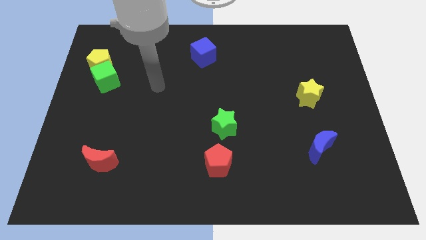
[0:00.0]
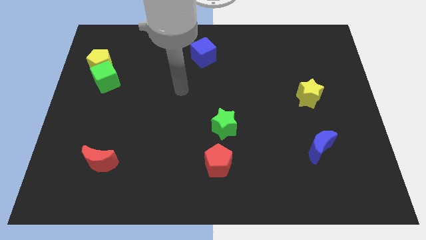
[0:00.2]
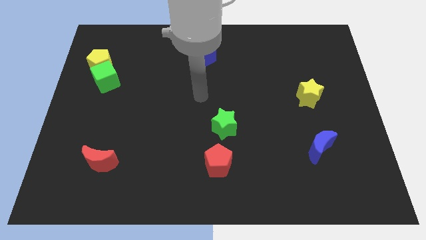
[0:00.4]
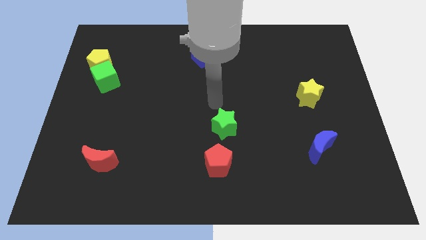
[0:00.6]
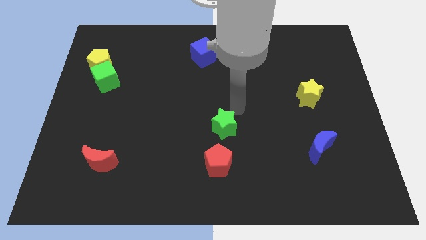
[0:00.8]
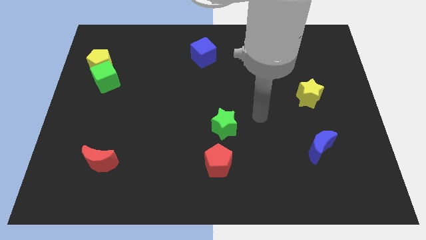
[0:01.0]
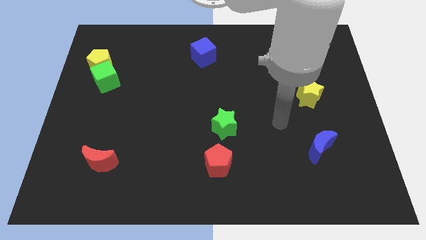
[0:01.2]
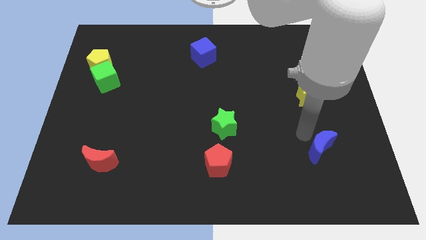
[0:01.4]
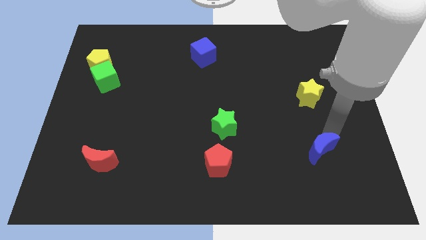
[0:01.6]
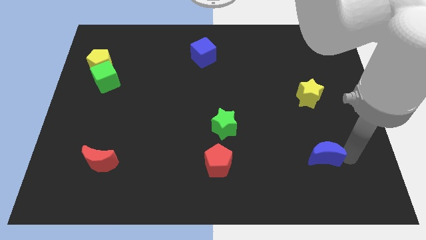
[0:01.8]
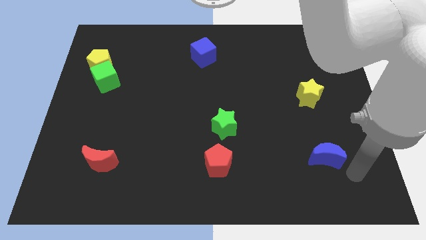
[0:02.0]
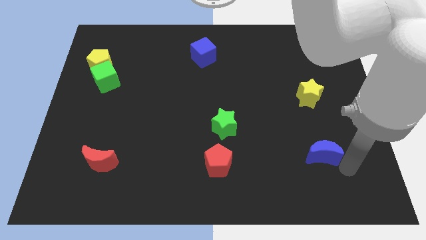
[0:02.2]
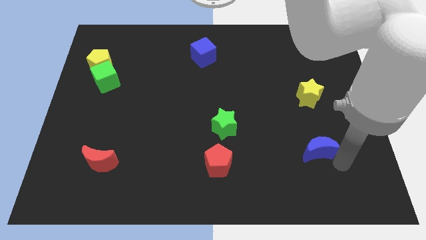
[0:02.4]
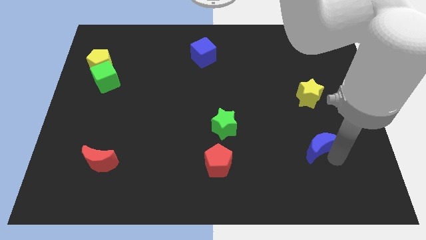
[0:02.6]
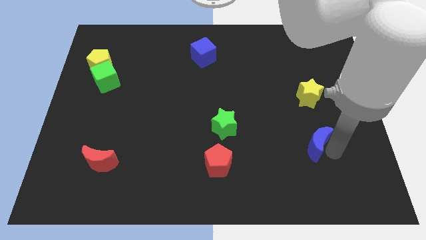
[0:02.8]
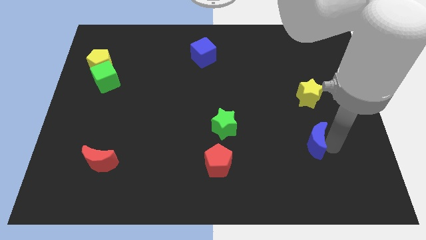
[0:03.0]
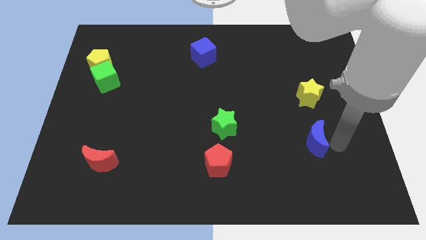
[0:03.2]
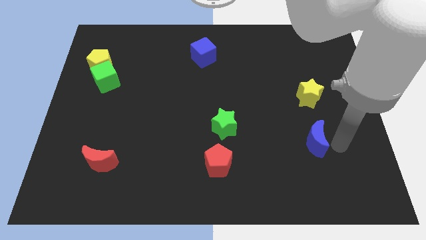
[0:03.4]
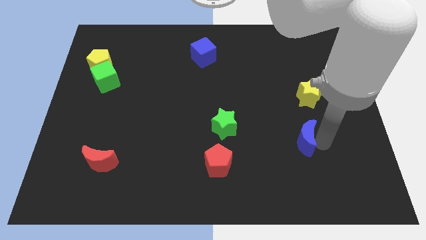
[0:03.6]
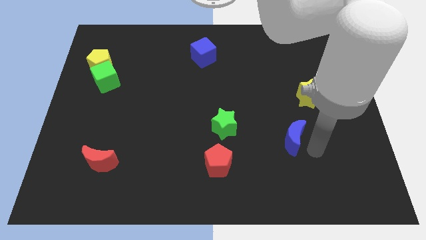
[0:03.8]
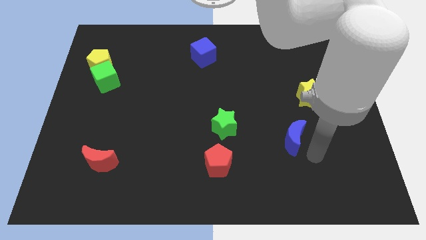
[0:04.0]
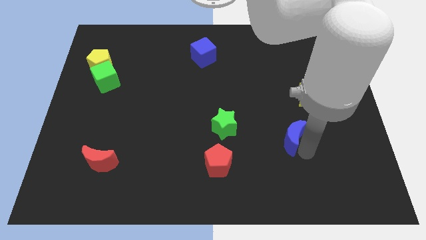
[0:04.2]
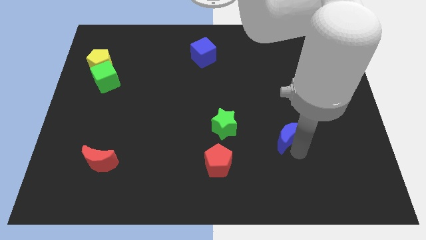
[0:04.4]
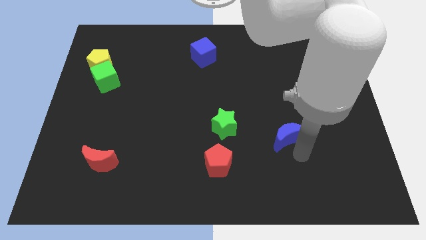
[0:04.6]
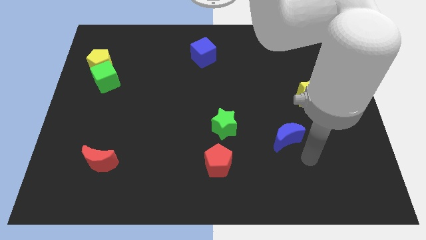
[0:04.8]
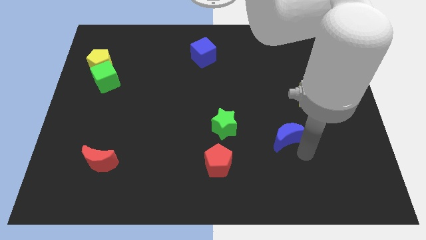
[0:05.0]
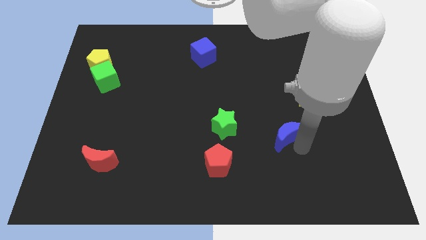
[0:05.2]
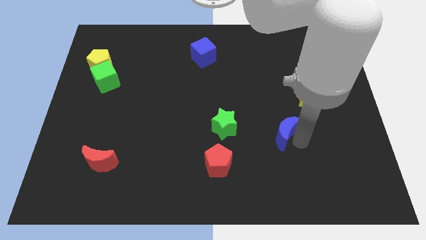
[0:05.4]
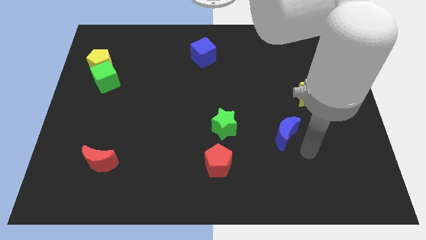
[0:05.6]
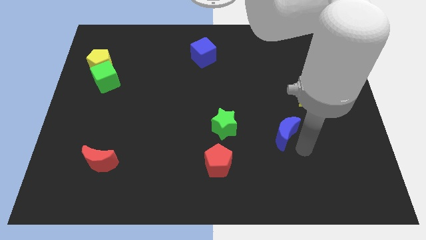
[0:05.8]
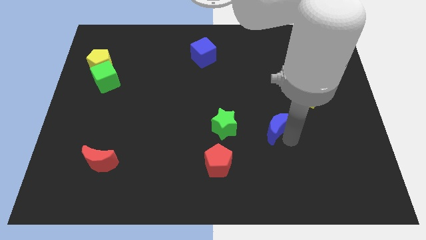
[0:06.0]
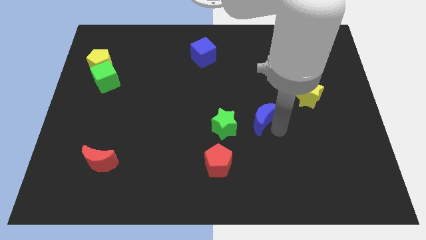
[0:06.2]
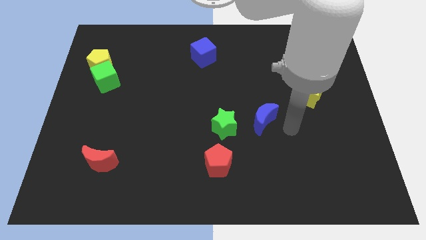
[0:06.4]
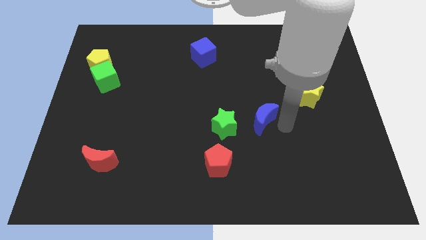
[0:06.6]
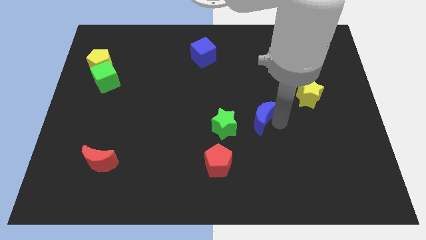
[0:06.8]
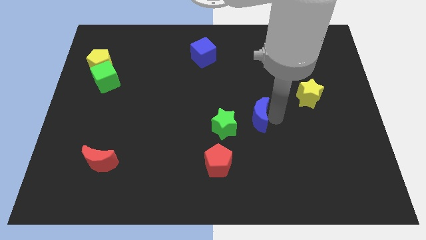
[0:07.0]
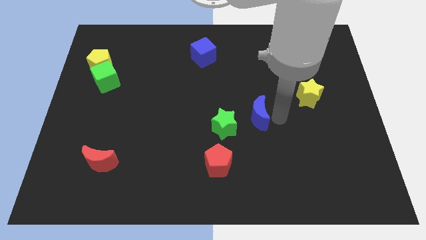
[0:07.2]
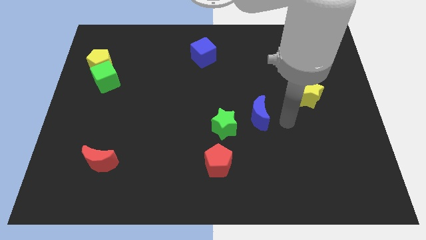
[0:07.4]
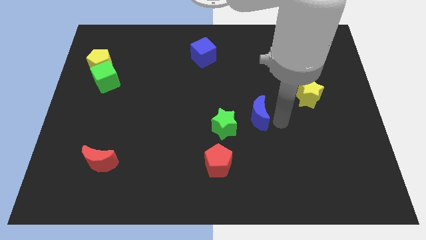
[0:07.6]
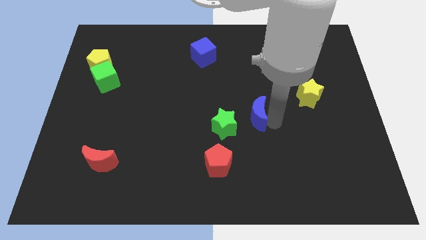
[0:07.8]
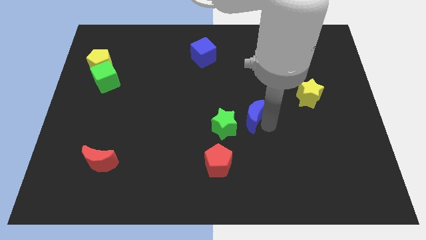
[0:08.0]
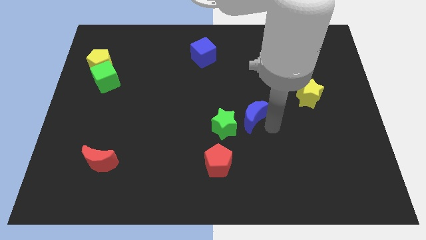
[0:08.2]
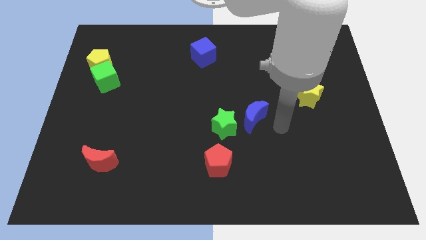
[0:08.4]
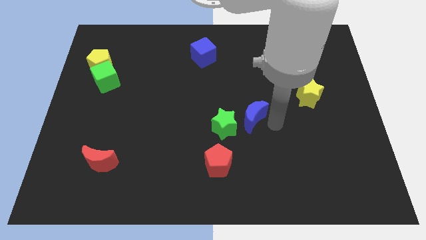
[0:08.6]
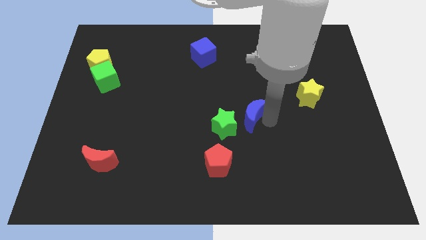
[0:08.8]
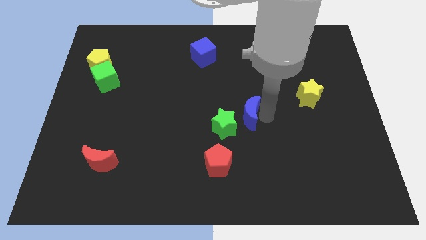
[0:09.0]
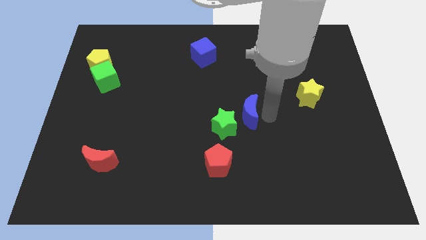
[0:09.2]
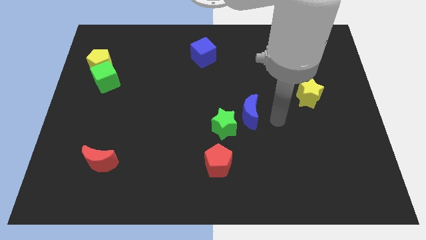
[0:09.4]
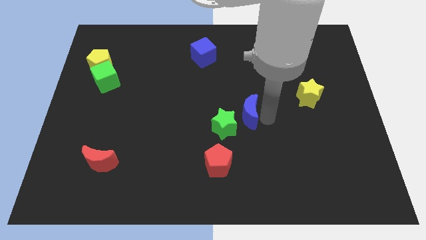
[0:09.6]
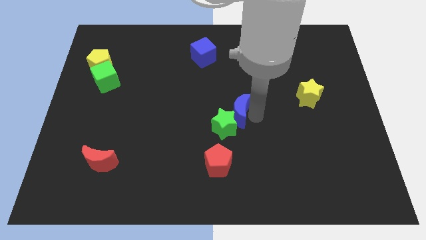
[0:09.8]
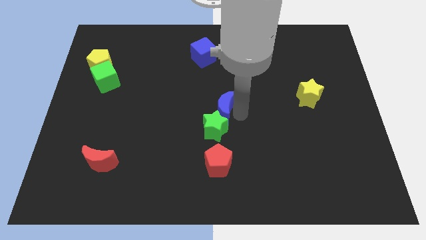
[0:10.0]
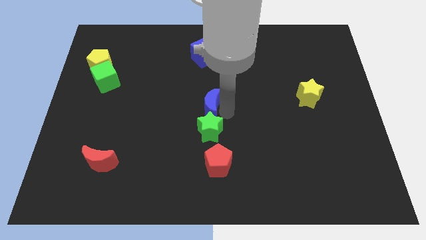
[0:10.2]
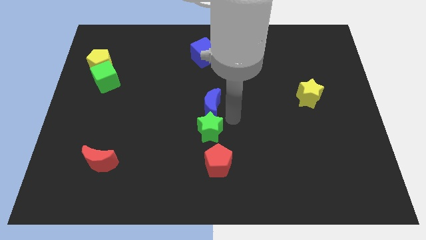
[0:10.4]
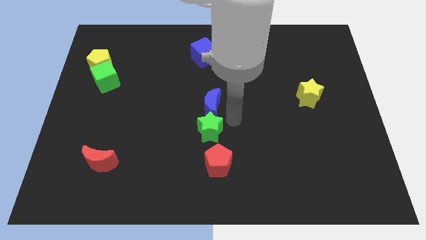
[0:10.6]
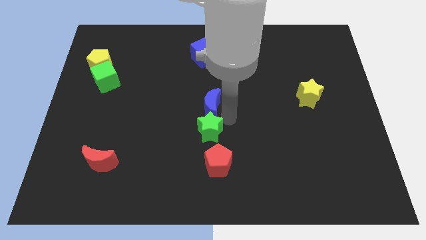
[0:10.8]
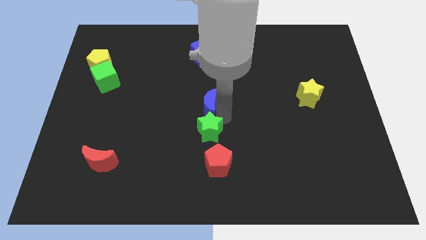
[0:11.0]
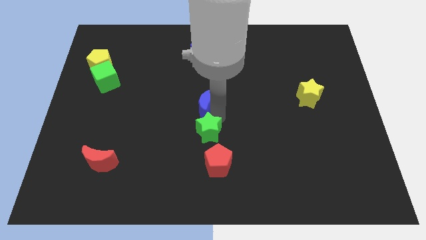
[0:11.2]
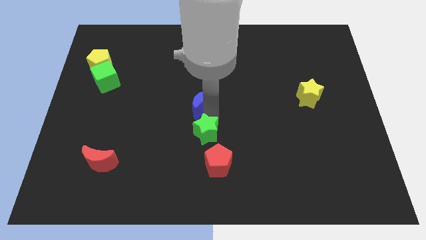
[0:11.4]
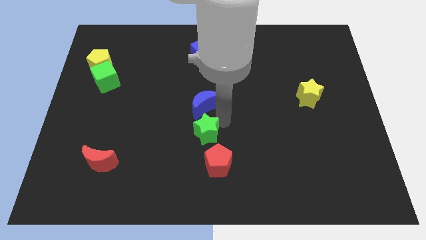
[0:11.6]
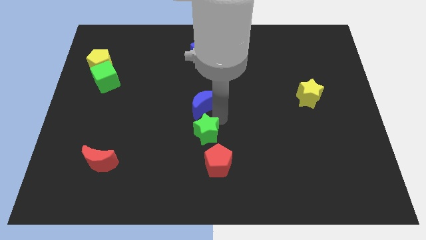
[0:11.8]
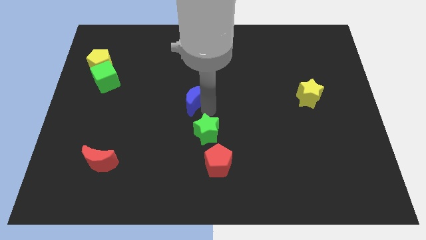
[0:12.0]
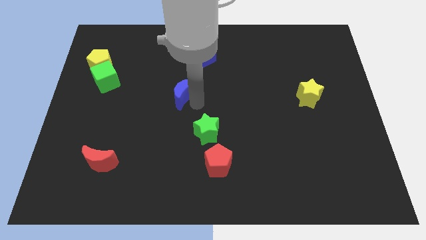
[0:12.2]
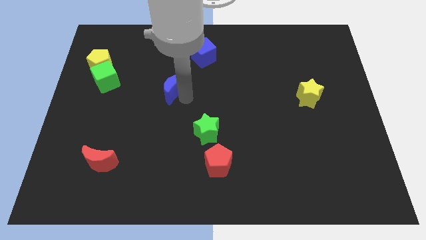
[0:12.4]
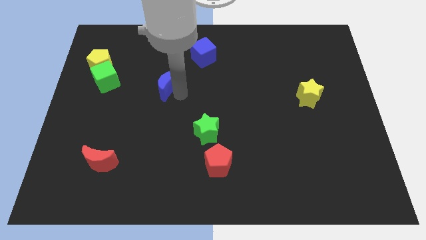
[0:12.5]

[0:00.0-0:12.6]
move the blue moon just right of the green cube

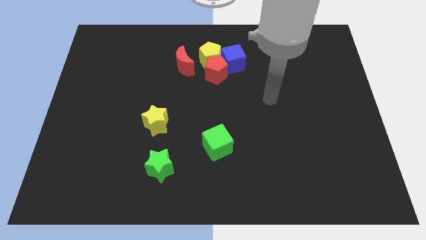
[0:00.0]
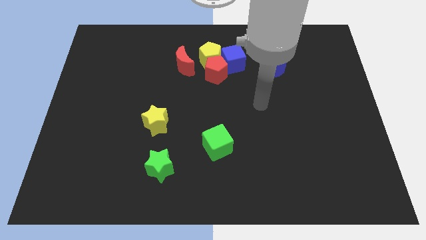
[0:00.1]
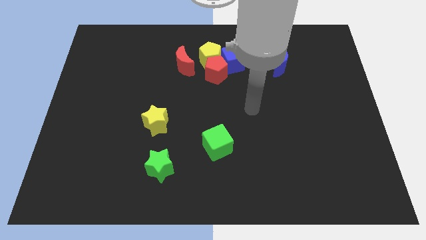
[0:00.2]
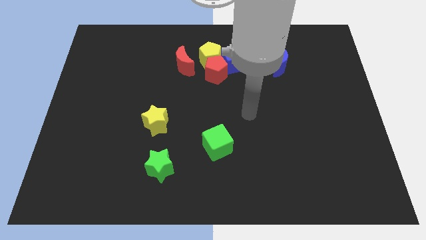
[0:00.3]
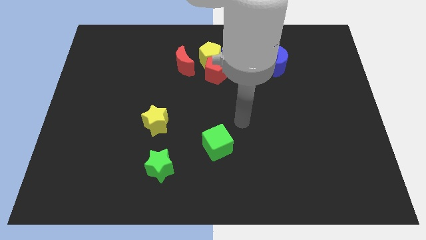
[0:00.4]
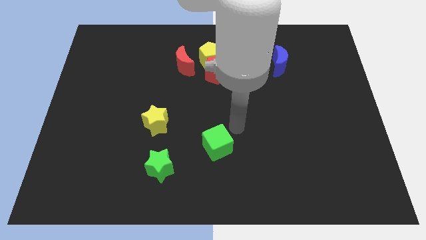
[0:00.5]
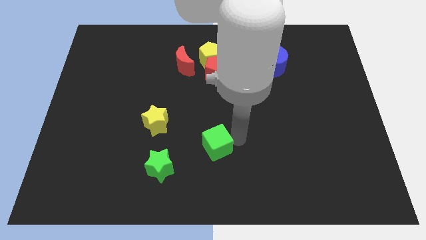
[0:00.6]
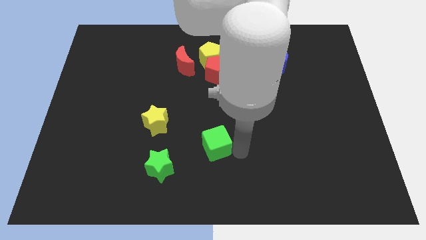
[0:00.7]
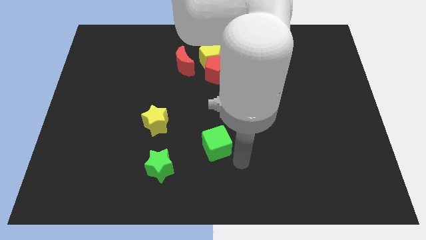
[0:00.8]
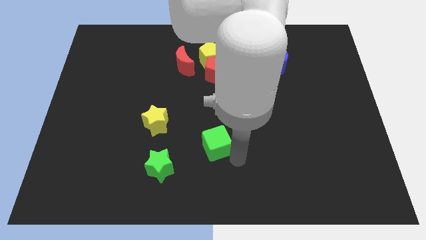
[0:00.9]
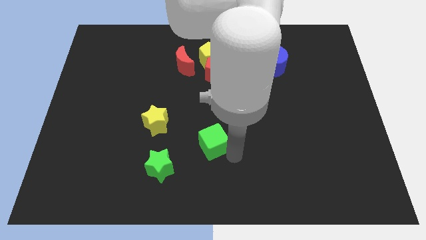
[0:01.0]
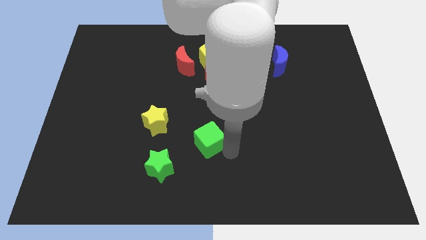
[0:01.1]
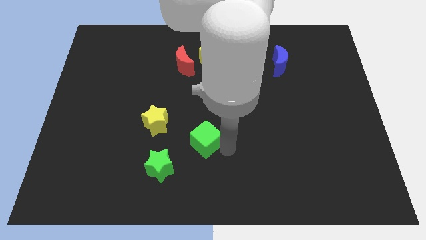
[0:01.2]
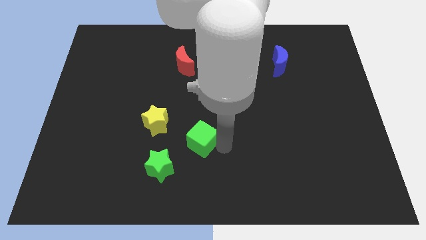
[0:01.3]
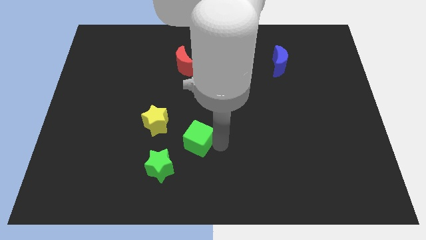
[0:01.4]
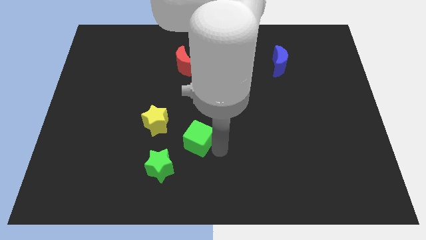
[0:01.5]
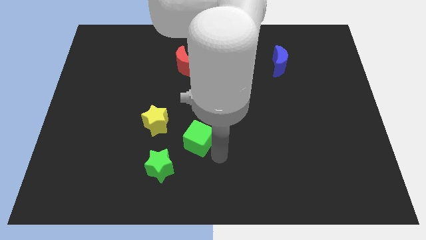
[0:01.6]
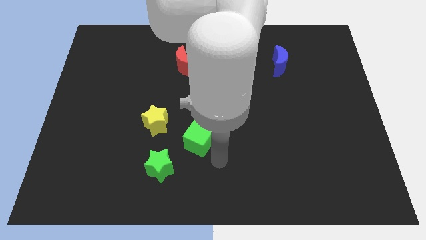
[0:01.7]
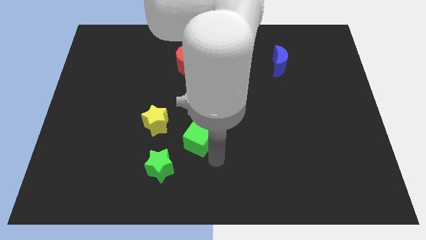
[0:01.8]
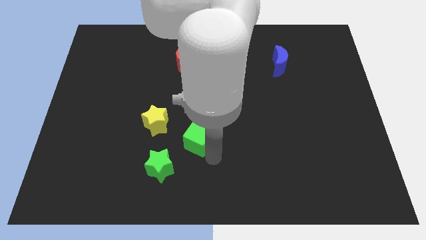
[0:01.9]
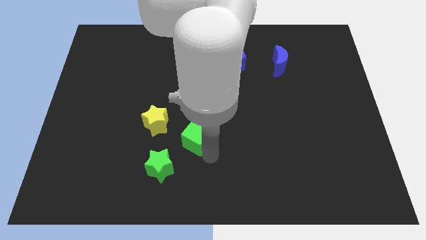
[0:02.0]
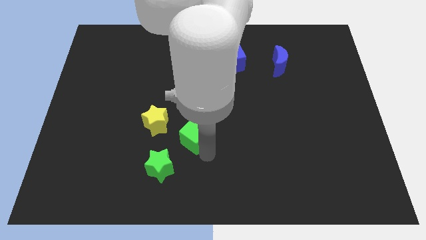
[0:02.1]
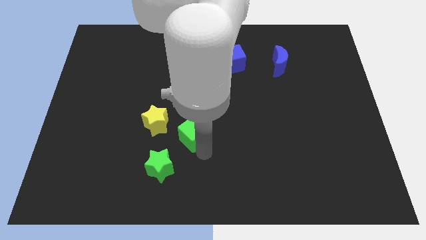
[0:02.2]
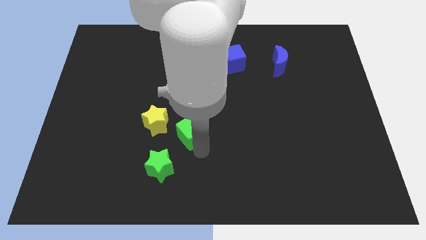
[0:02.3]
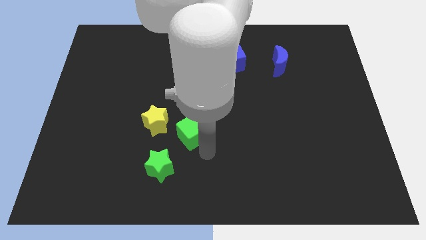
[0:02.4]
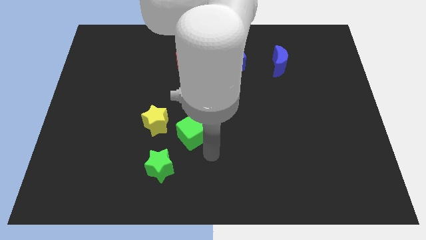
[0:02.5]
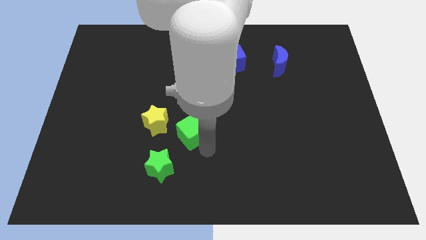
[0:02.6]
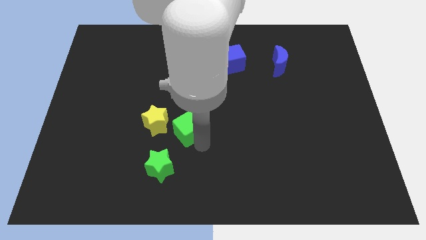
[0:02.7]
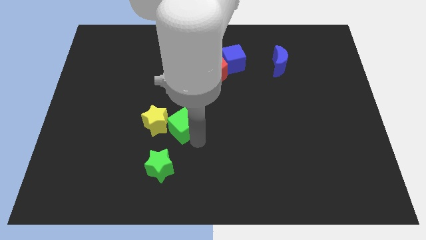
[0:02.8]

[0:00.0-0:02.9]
push the green cube to the top of the green star
